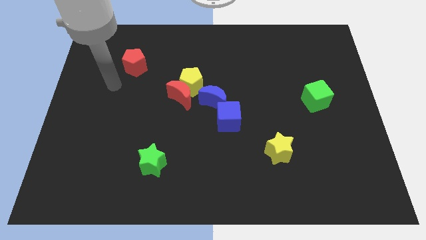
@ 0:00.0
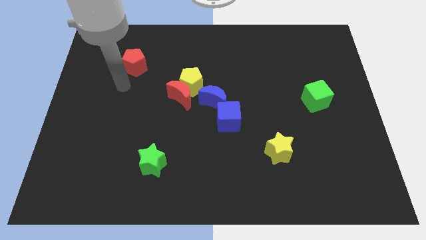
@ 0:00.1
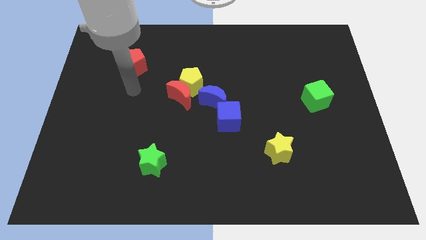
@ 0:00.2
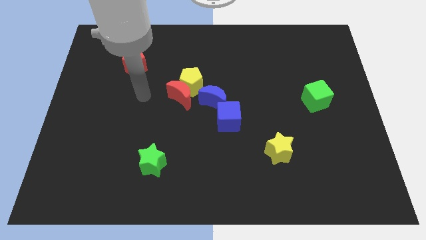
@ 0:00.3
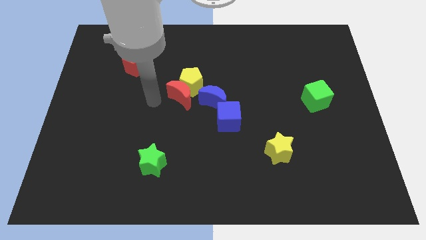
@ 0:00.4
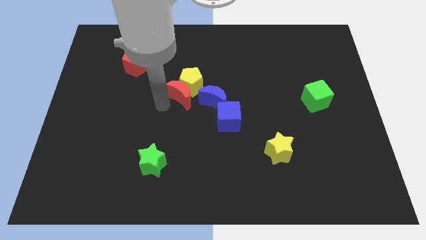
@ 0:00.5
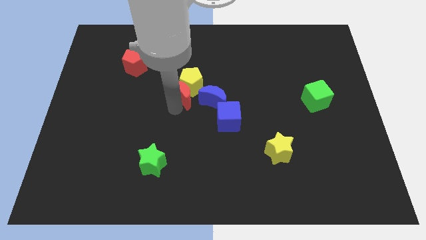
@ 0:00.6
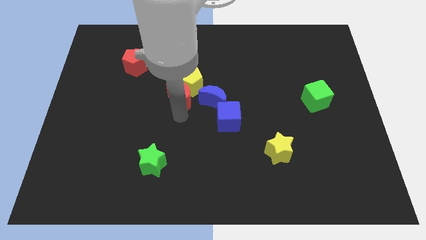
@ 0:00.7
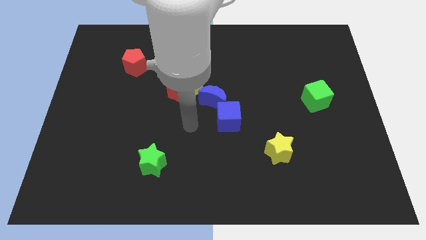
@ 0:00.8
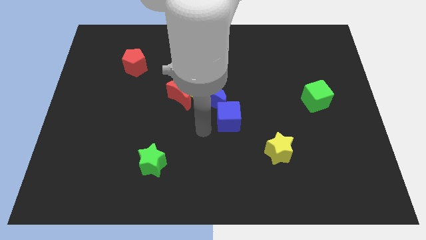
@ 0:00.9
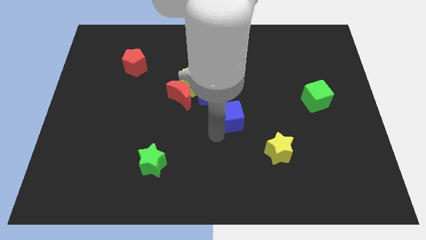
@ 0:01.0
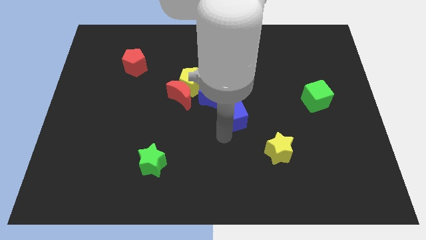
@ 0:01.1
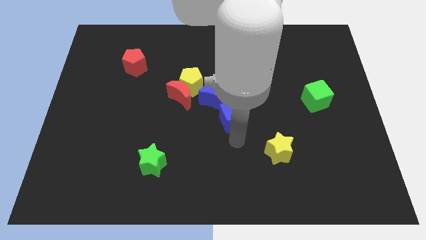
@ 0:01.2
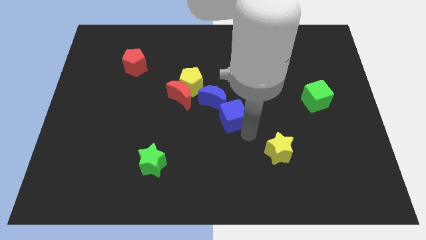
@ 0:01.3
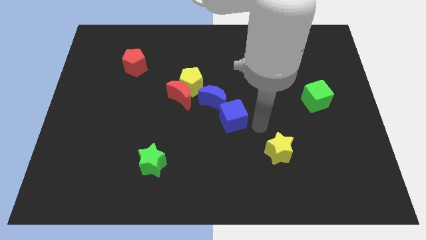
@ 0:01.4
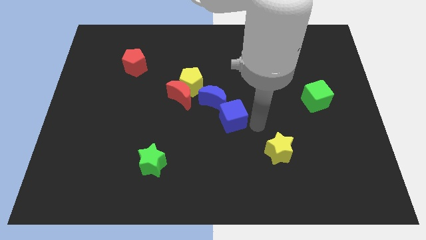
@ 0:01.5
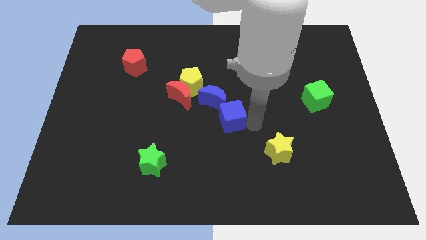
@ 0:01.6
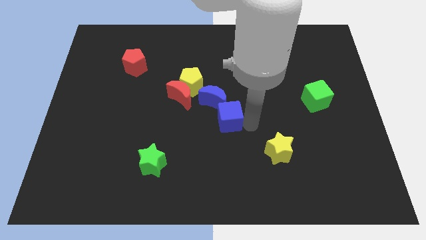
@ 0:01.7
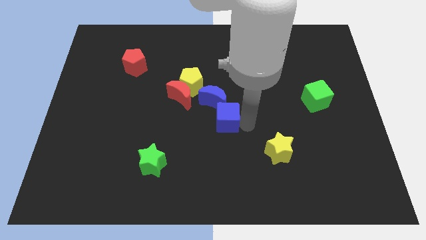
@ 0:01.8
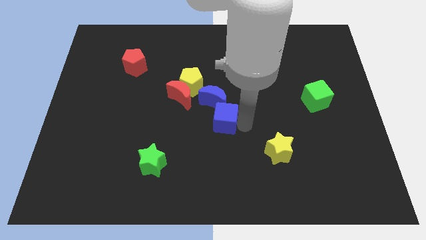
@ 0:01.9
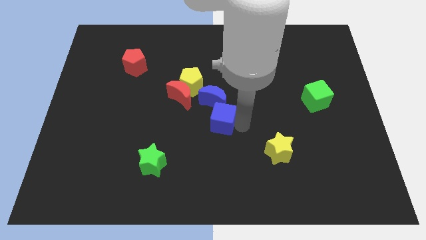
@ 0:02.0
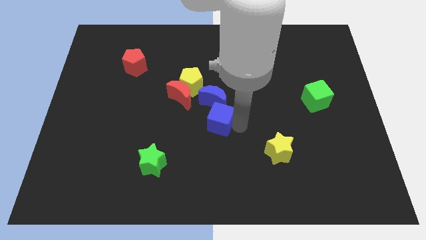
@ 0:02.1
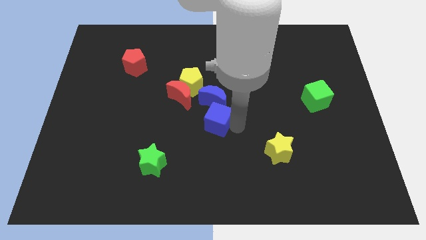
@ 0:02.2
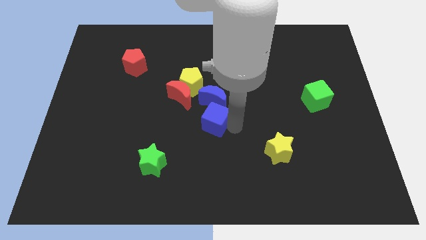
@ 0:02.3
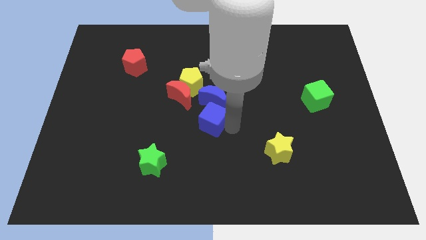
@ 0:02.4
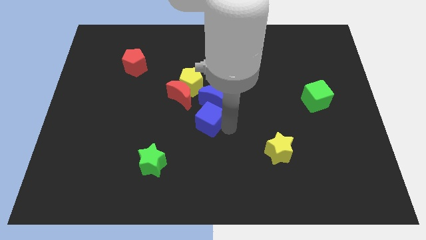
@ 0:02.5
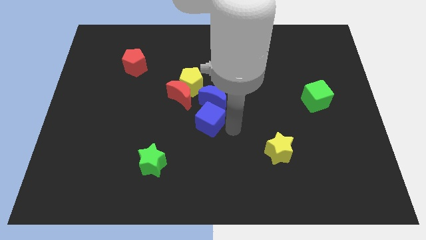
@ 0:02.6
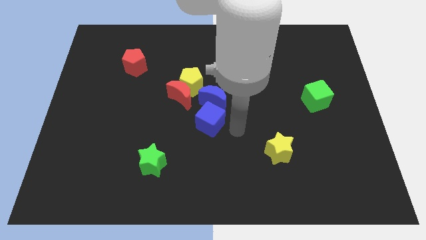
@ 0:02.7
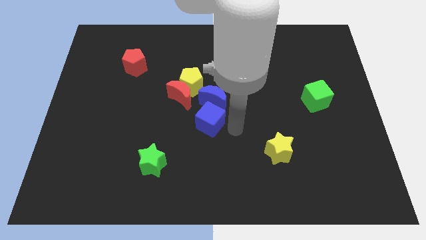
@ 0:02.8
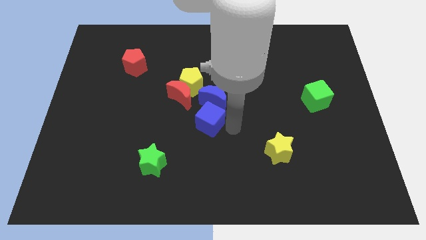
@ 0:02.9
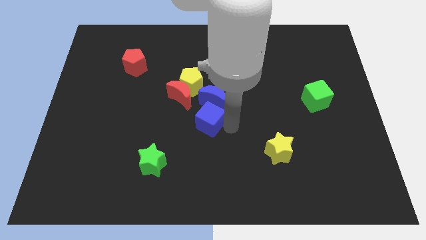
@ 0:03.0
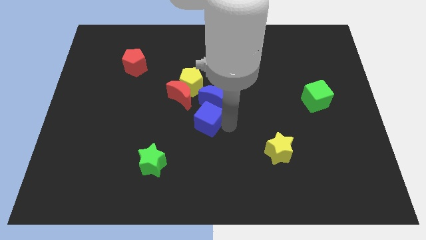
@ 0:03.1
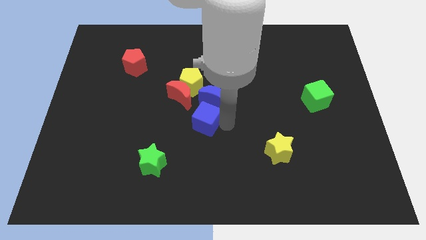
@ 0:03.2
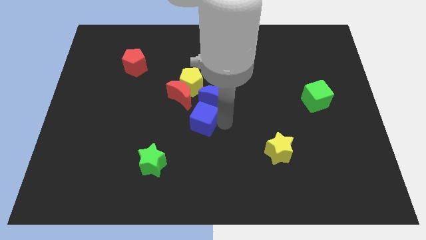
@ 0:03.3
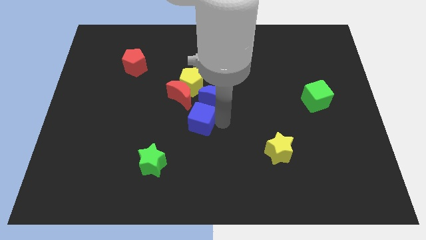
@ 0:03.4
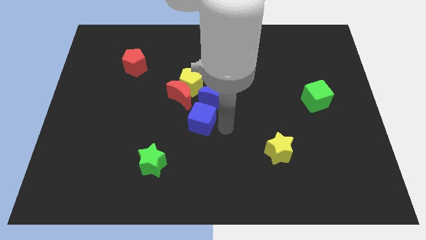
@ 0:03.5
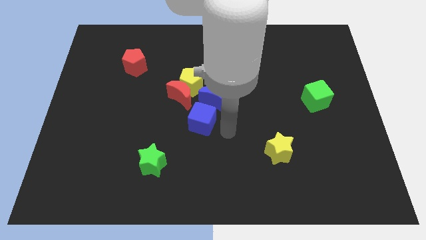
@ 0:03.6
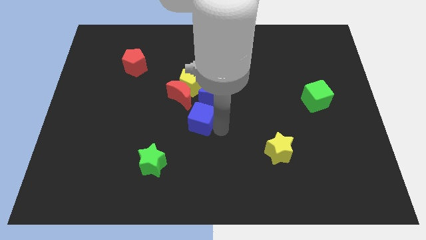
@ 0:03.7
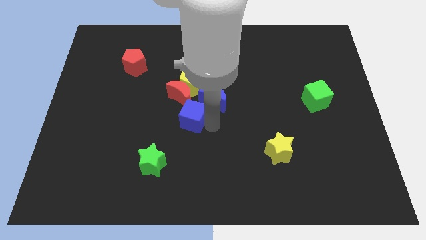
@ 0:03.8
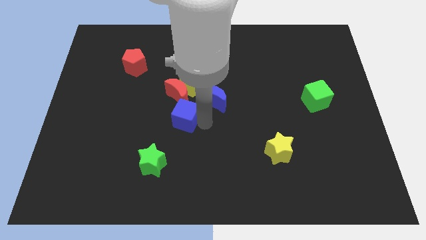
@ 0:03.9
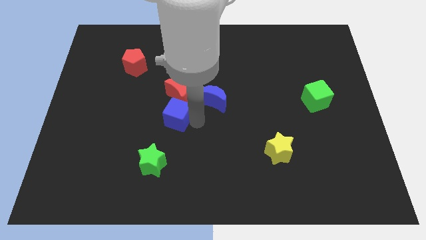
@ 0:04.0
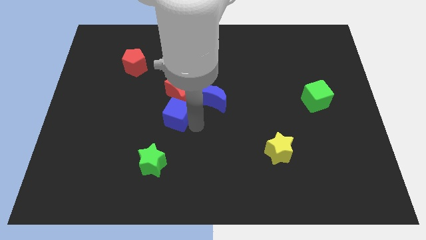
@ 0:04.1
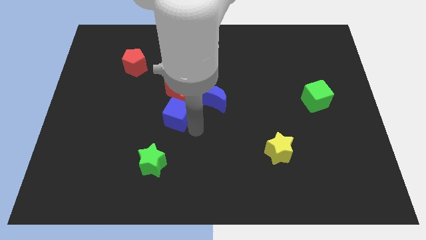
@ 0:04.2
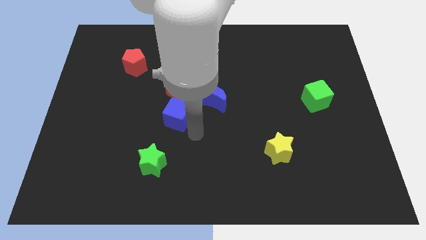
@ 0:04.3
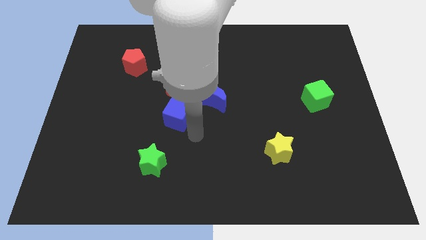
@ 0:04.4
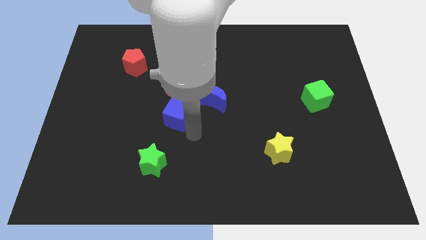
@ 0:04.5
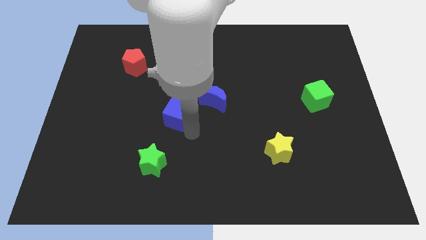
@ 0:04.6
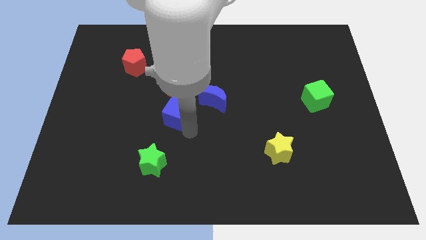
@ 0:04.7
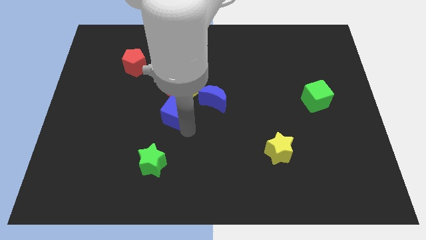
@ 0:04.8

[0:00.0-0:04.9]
slightly move the blue cube up and left

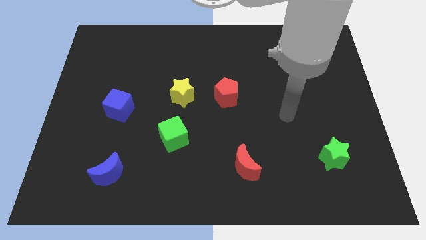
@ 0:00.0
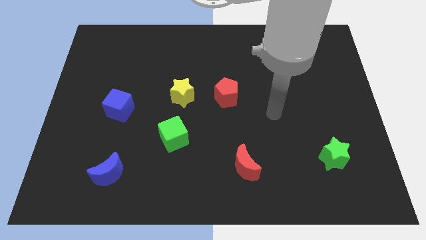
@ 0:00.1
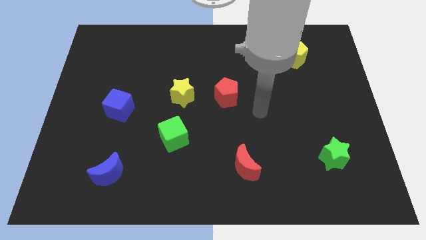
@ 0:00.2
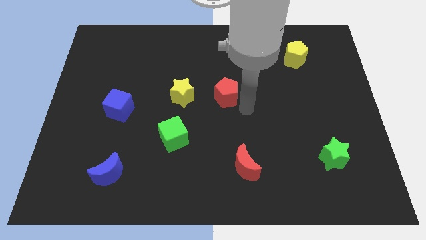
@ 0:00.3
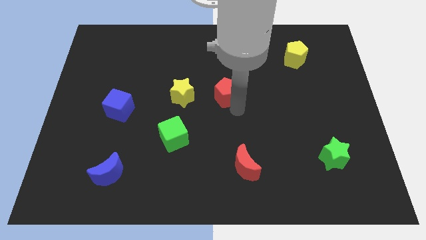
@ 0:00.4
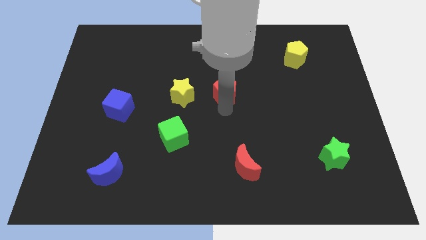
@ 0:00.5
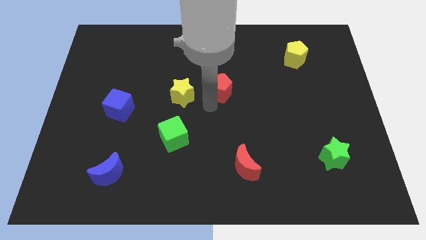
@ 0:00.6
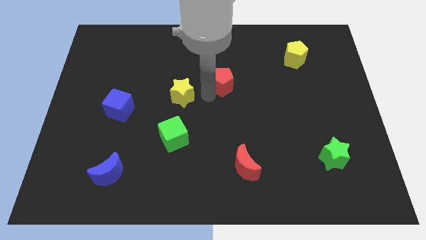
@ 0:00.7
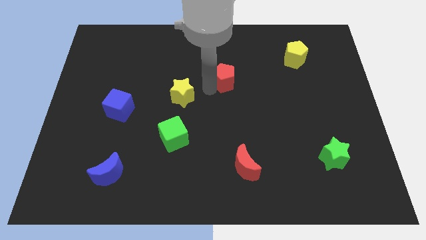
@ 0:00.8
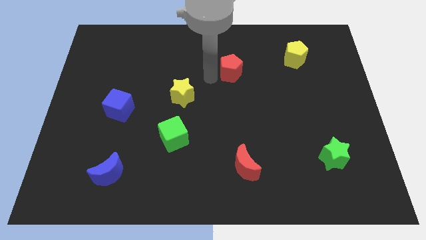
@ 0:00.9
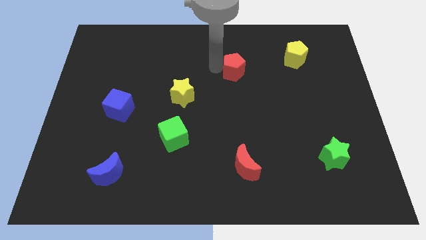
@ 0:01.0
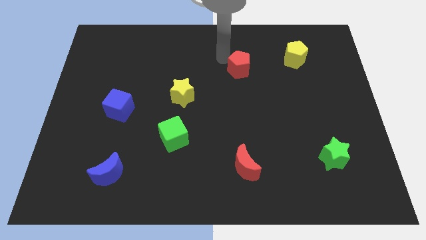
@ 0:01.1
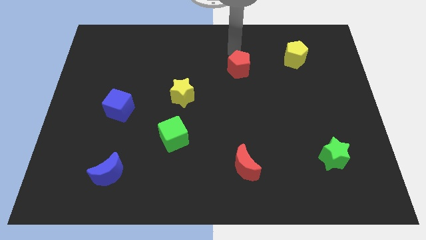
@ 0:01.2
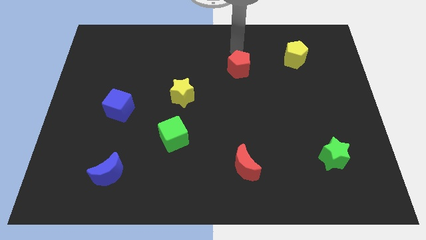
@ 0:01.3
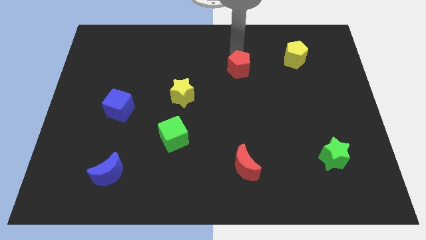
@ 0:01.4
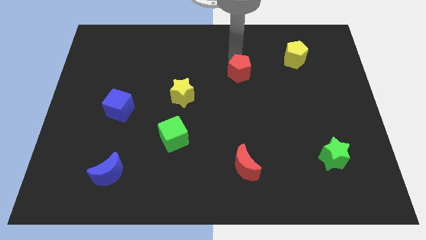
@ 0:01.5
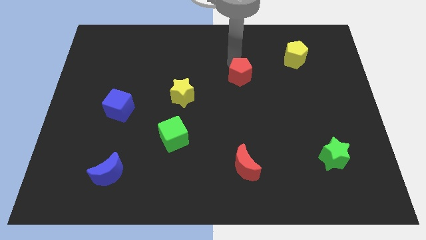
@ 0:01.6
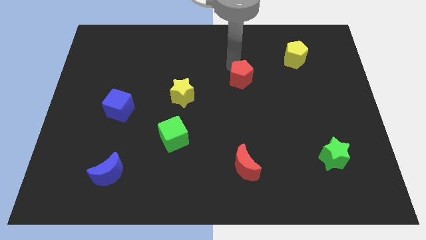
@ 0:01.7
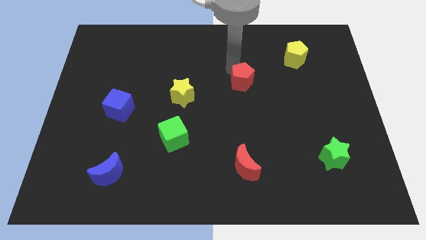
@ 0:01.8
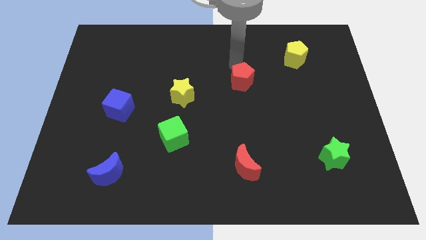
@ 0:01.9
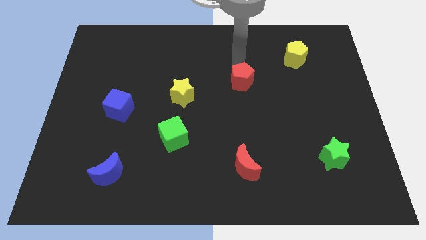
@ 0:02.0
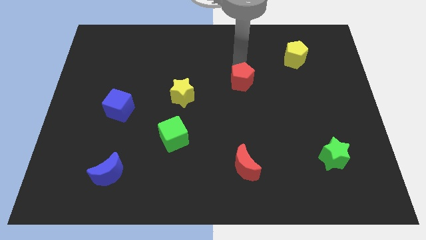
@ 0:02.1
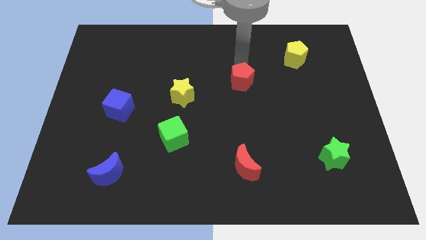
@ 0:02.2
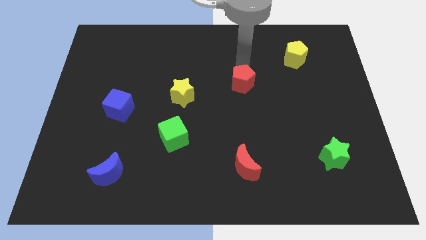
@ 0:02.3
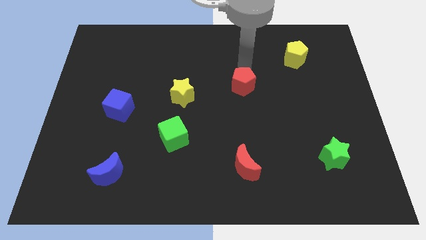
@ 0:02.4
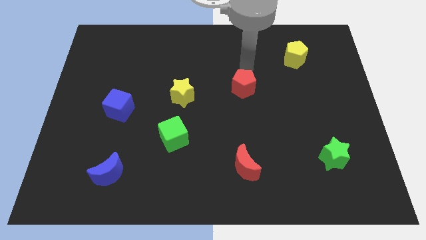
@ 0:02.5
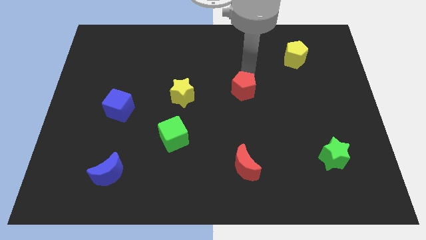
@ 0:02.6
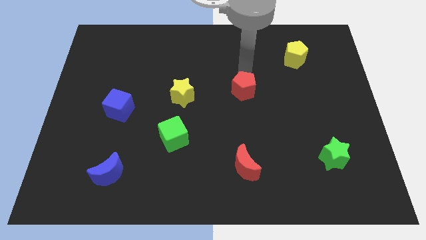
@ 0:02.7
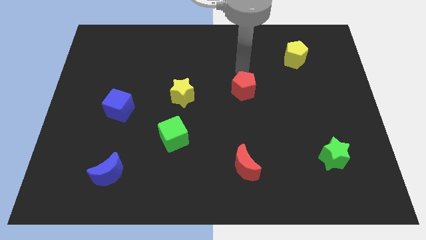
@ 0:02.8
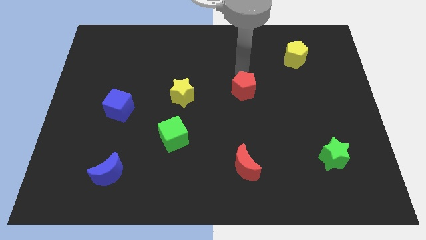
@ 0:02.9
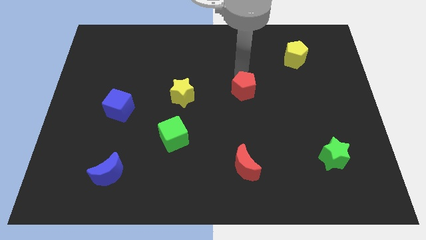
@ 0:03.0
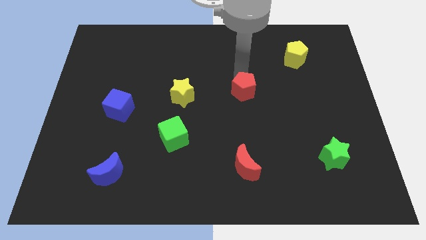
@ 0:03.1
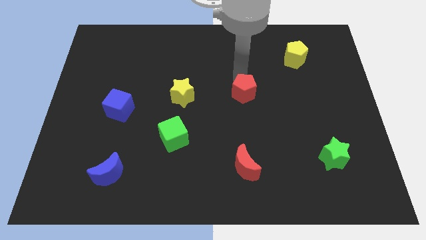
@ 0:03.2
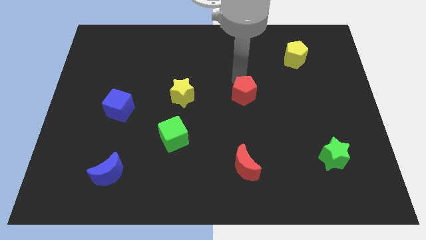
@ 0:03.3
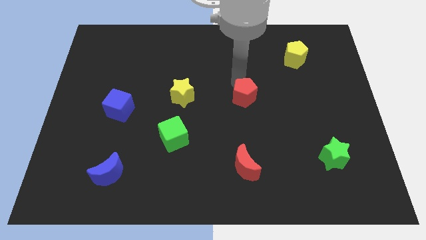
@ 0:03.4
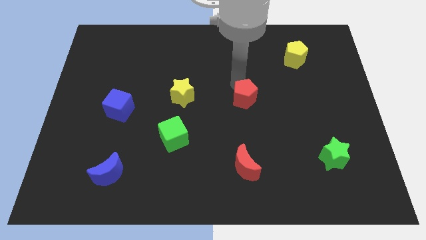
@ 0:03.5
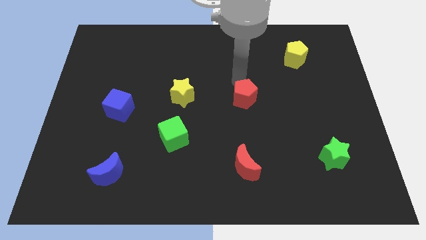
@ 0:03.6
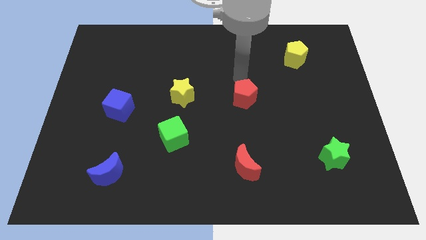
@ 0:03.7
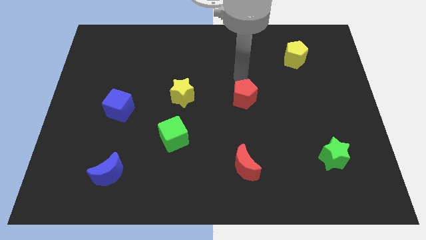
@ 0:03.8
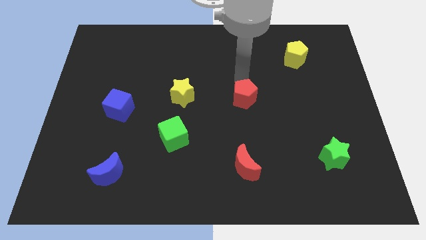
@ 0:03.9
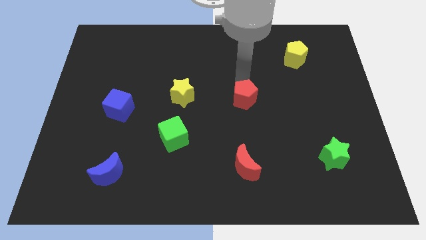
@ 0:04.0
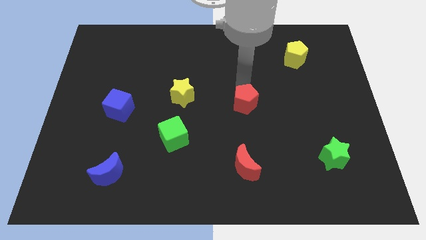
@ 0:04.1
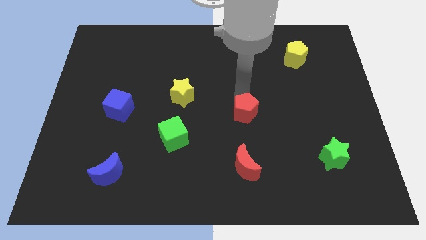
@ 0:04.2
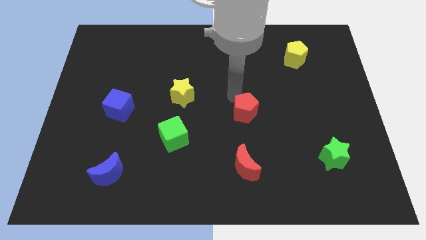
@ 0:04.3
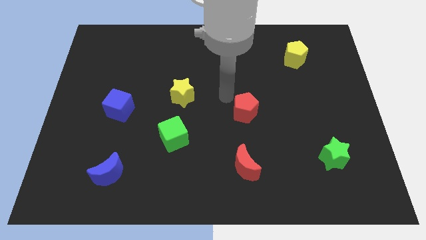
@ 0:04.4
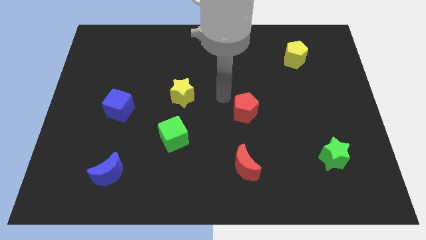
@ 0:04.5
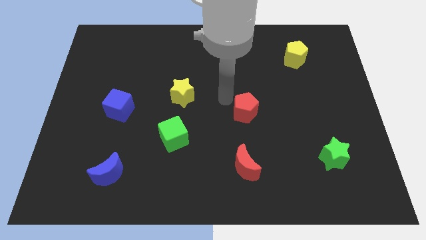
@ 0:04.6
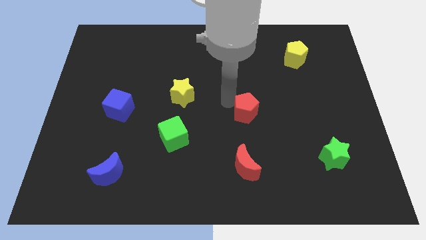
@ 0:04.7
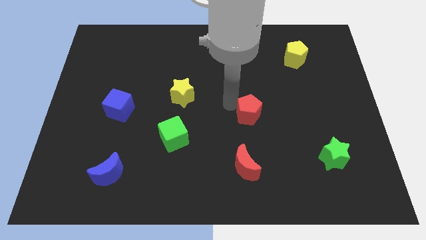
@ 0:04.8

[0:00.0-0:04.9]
move the red pentagon a bit downwards and right diagonally
